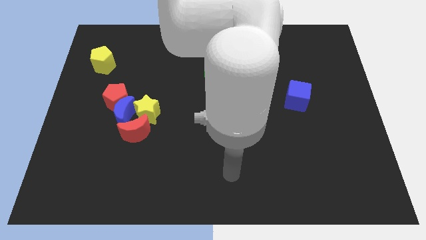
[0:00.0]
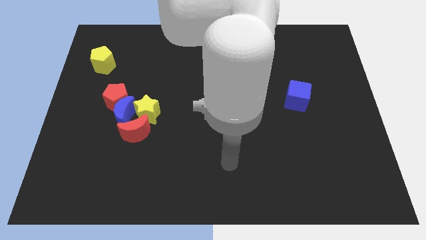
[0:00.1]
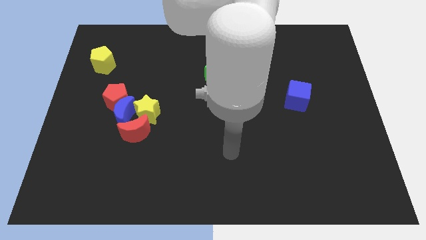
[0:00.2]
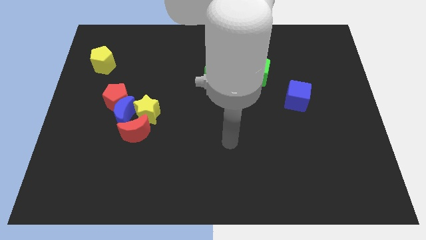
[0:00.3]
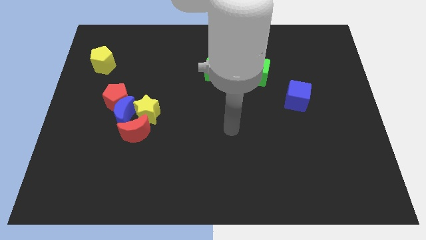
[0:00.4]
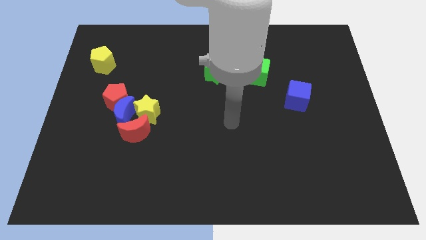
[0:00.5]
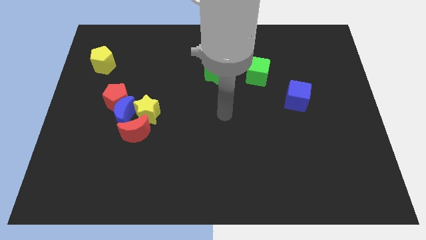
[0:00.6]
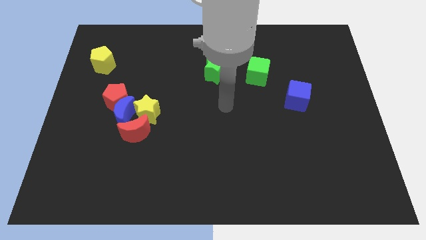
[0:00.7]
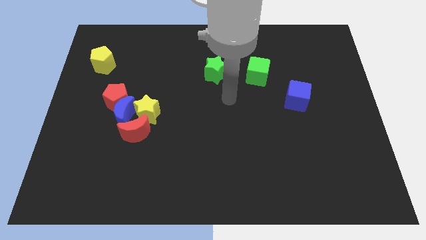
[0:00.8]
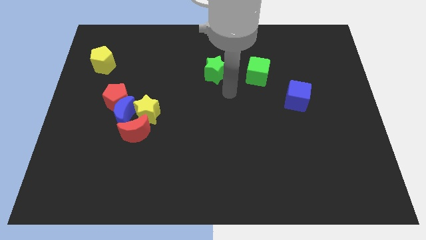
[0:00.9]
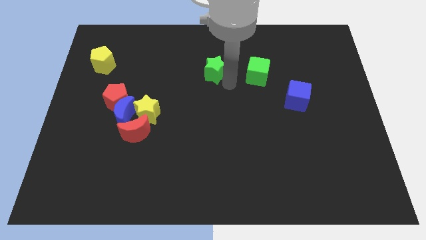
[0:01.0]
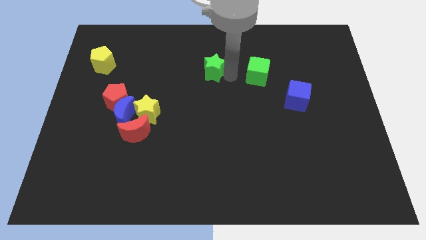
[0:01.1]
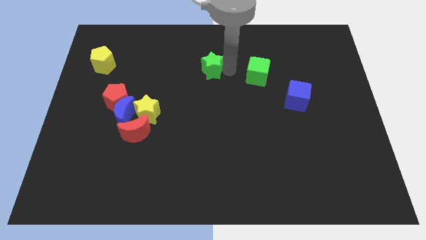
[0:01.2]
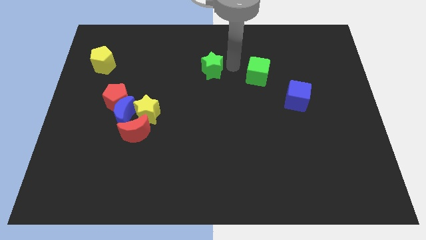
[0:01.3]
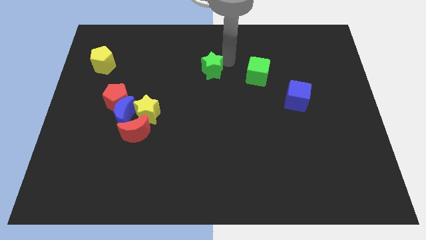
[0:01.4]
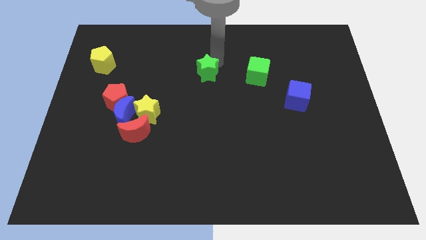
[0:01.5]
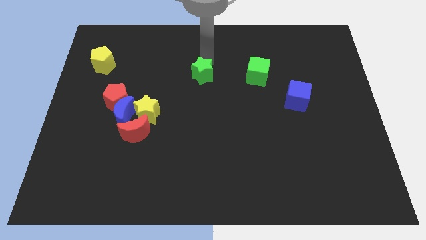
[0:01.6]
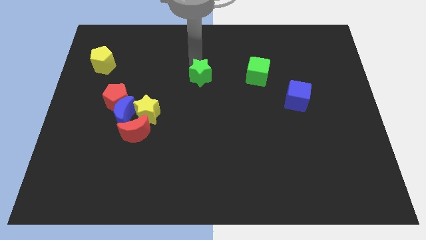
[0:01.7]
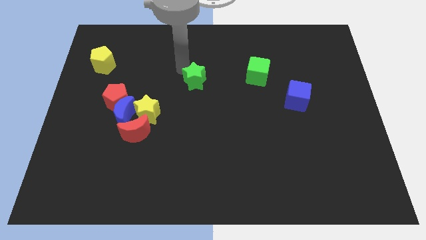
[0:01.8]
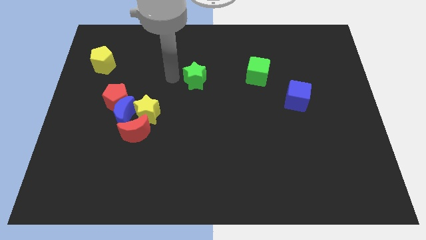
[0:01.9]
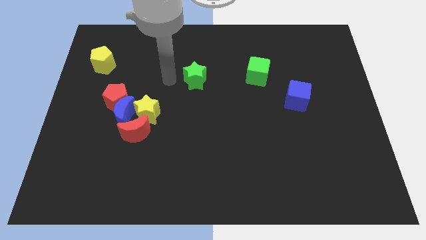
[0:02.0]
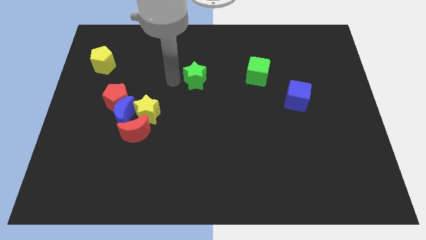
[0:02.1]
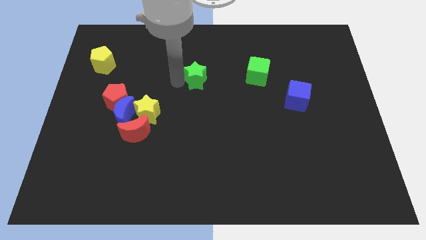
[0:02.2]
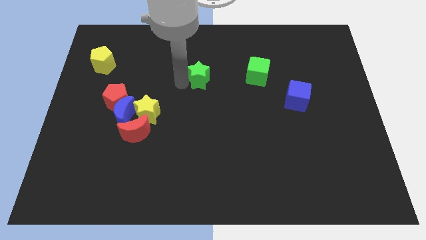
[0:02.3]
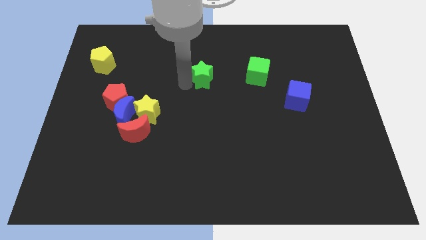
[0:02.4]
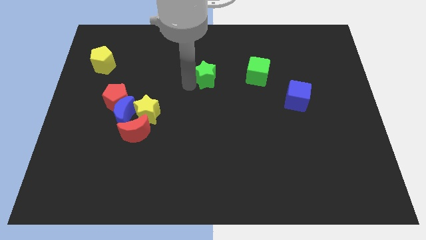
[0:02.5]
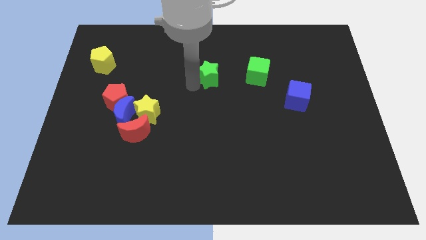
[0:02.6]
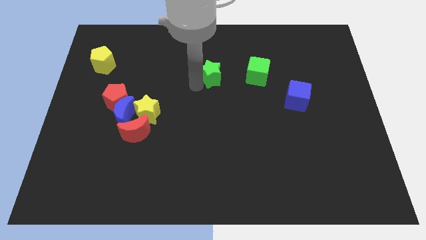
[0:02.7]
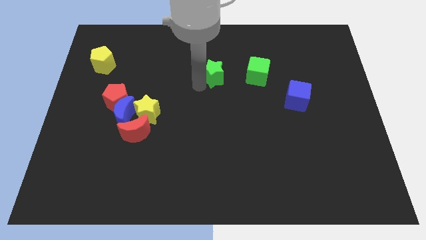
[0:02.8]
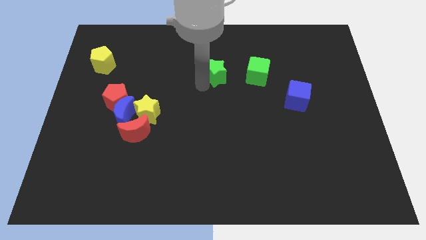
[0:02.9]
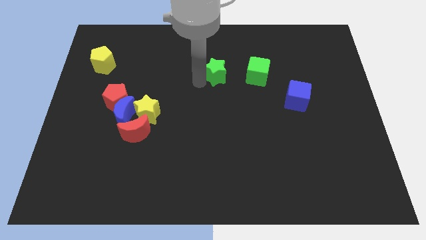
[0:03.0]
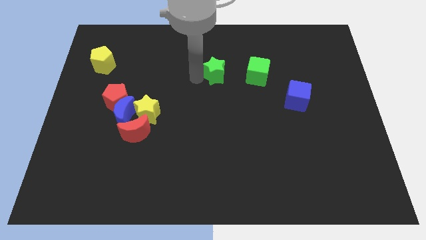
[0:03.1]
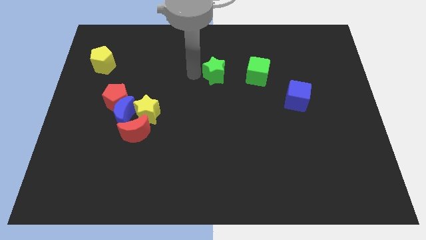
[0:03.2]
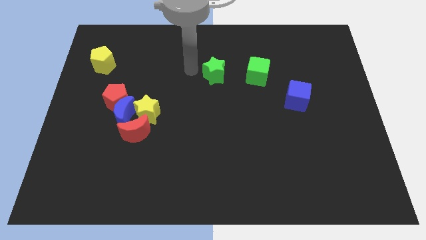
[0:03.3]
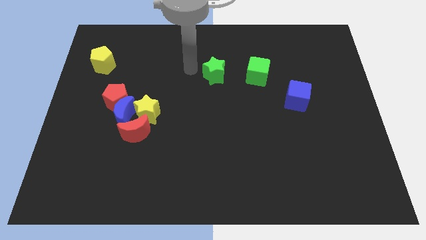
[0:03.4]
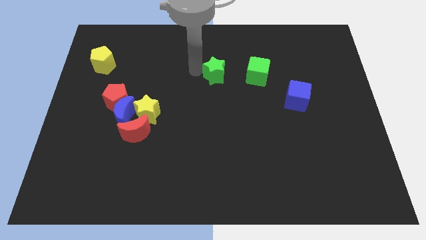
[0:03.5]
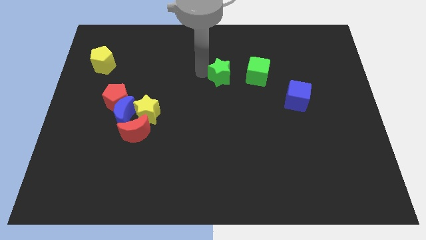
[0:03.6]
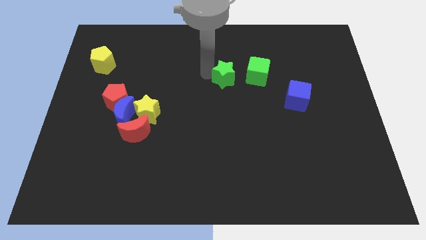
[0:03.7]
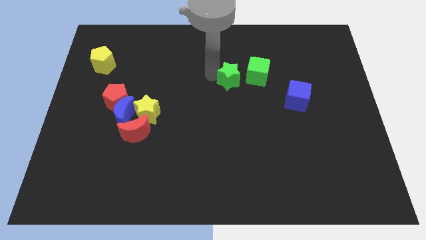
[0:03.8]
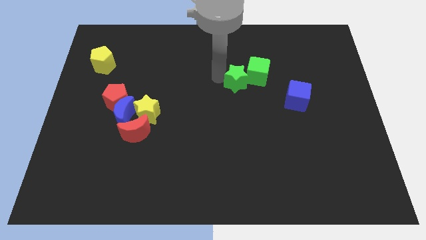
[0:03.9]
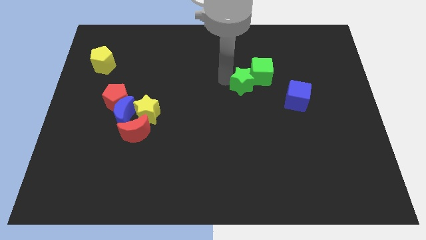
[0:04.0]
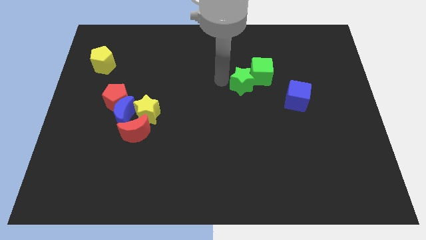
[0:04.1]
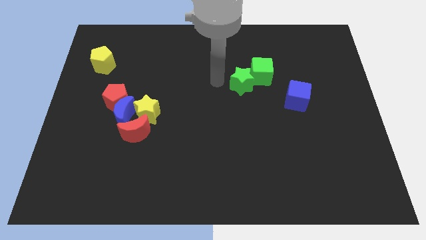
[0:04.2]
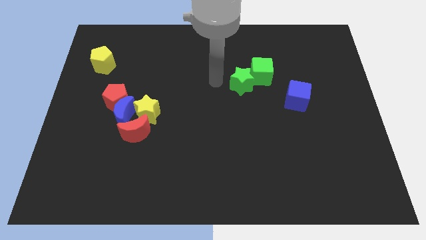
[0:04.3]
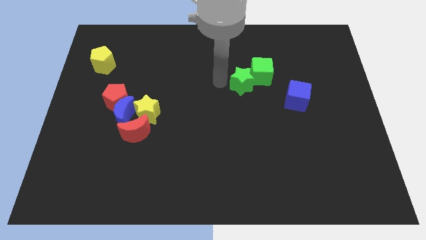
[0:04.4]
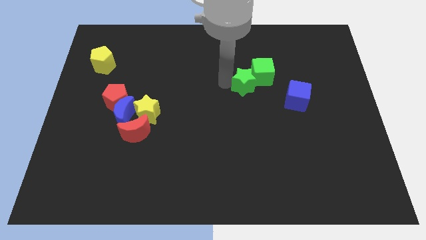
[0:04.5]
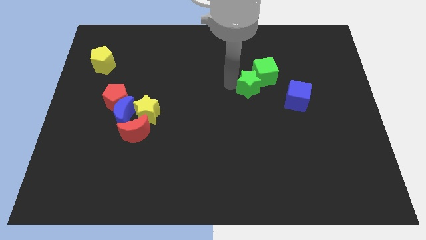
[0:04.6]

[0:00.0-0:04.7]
slightly move the green star to the right

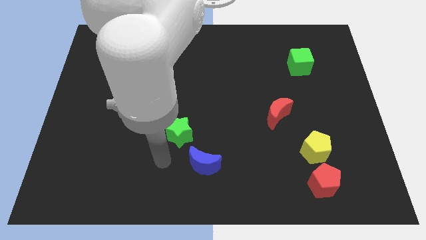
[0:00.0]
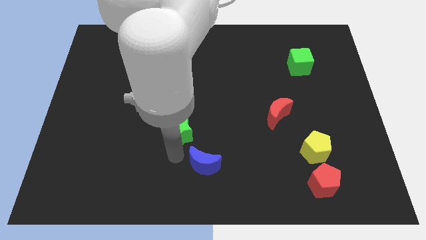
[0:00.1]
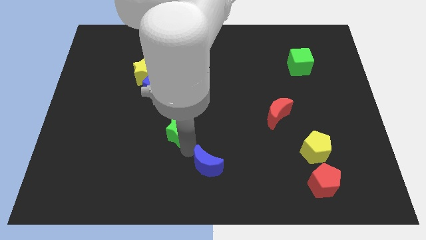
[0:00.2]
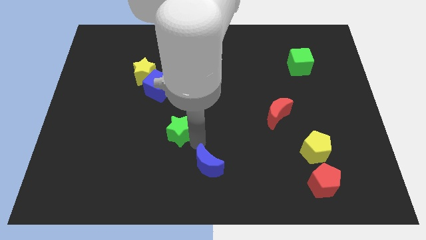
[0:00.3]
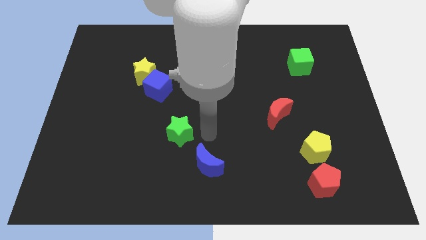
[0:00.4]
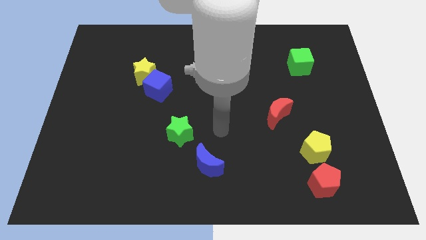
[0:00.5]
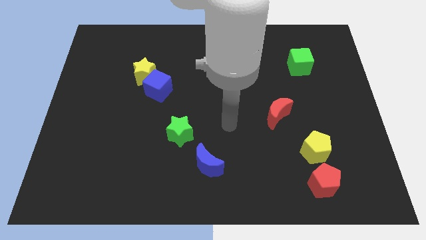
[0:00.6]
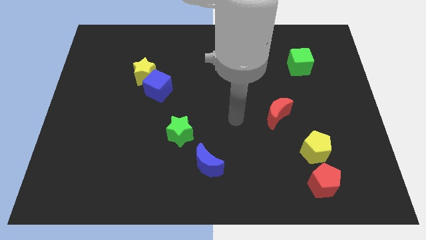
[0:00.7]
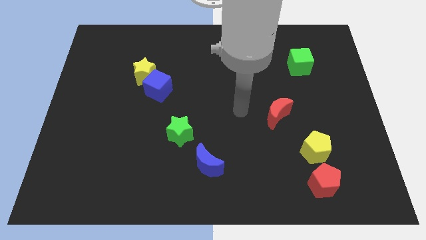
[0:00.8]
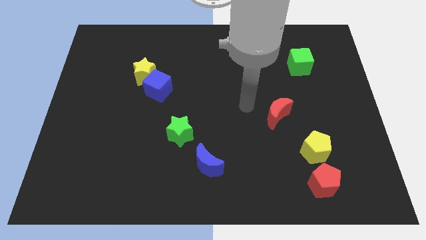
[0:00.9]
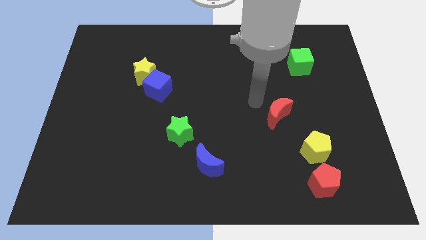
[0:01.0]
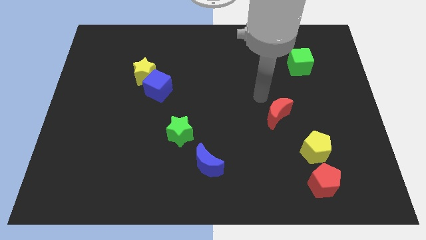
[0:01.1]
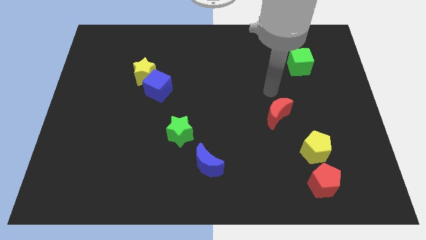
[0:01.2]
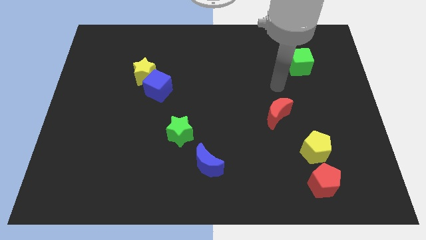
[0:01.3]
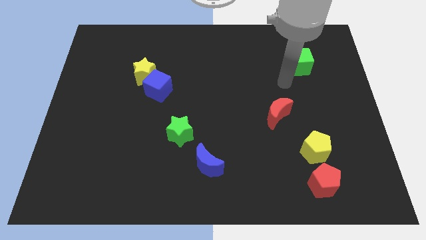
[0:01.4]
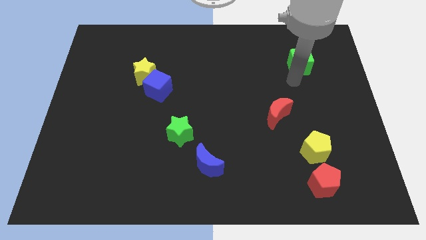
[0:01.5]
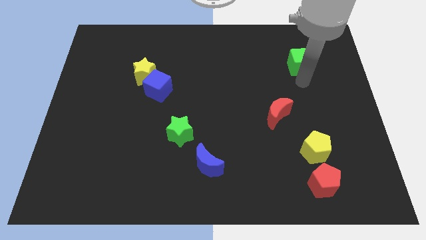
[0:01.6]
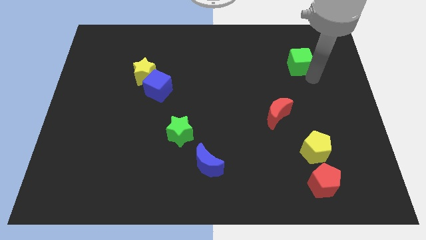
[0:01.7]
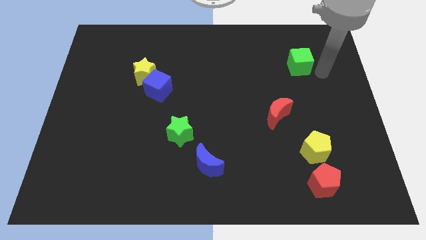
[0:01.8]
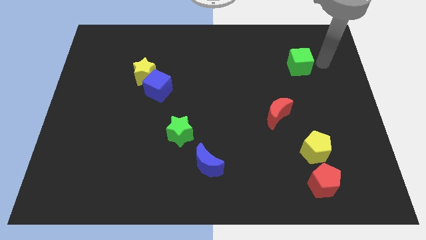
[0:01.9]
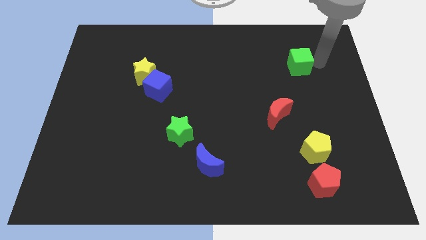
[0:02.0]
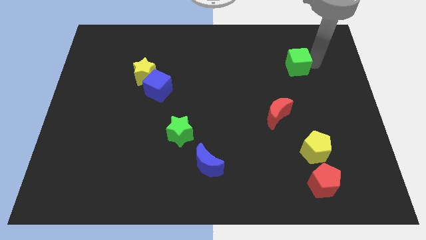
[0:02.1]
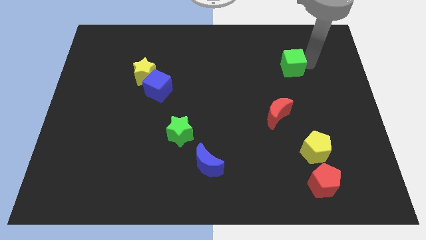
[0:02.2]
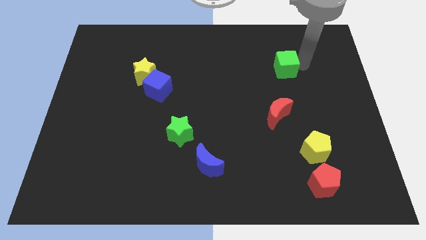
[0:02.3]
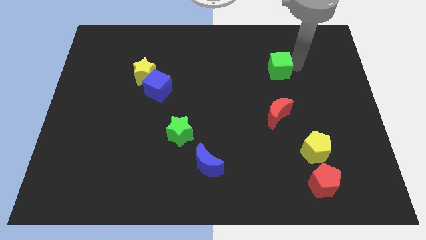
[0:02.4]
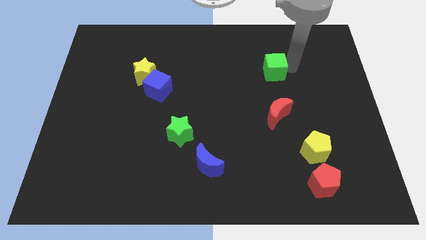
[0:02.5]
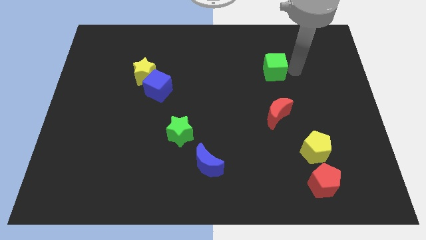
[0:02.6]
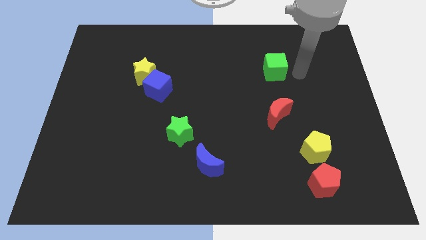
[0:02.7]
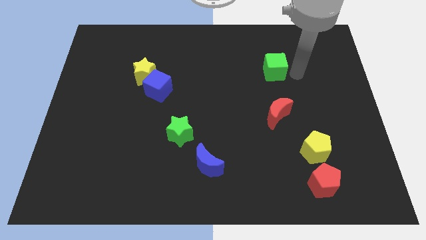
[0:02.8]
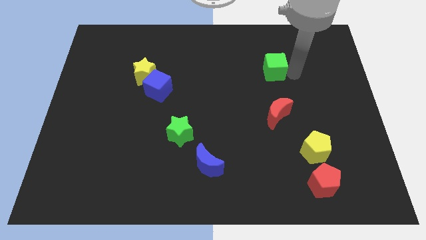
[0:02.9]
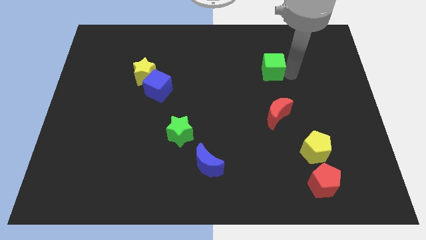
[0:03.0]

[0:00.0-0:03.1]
push the green cube somewhat to the left

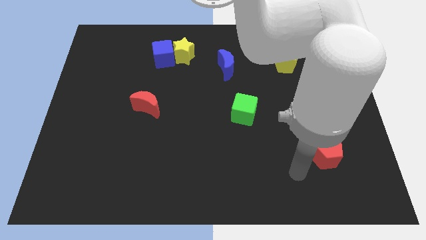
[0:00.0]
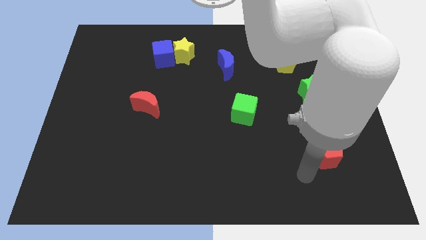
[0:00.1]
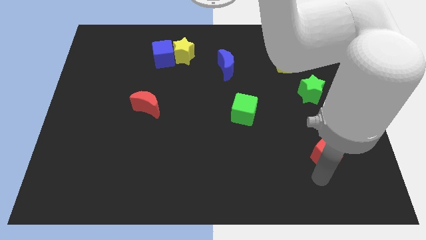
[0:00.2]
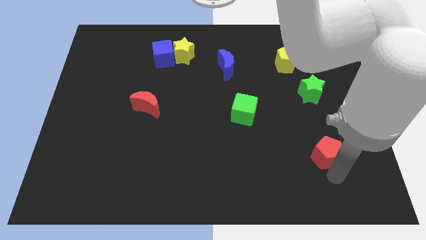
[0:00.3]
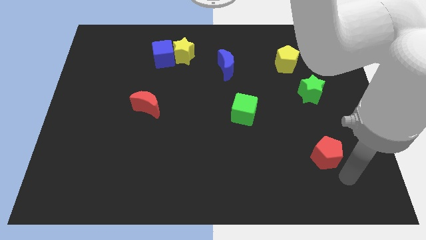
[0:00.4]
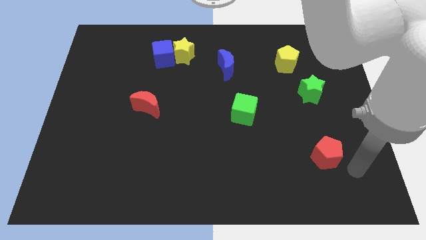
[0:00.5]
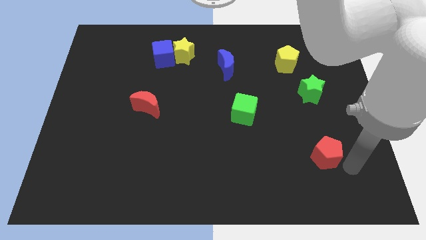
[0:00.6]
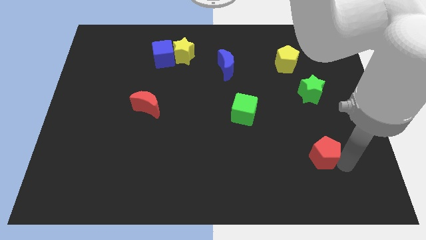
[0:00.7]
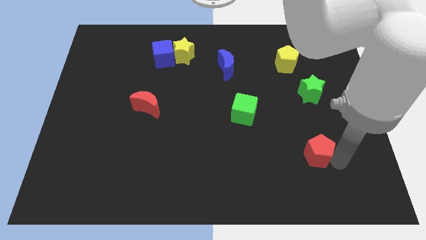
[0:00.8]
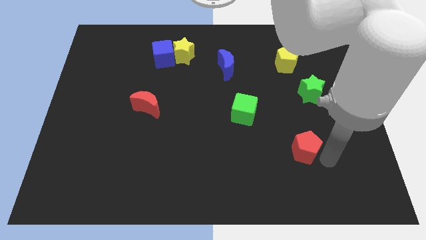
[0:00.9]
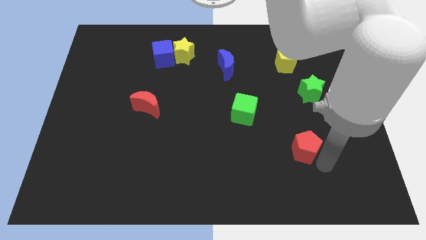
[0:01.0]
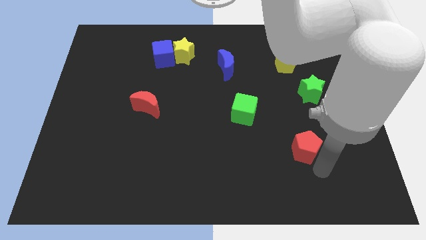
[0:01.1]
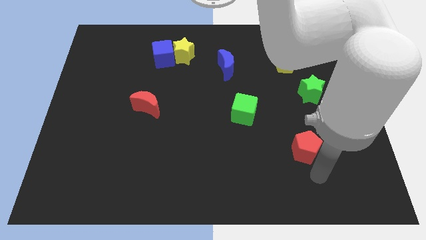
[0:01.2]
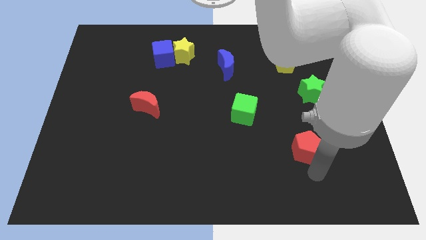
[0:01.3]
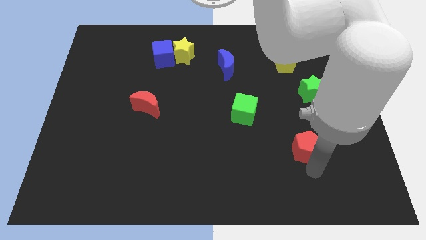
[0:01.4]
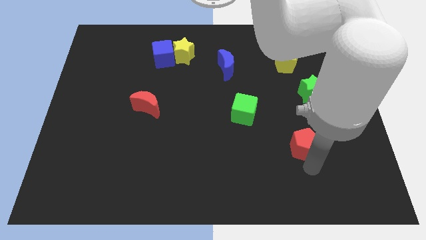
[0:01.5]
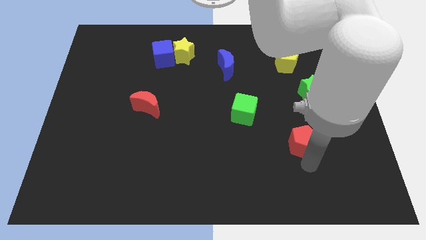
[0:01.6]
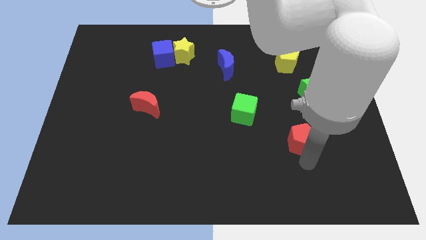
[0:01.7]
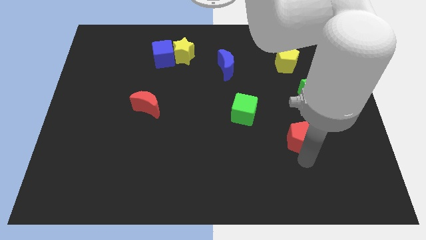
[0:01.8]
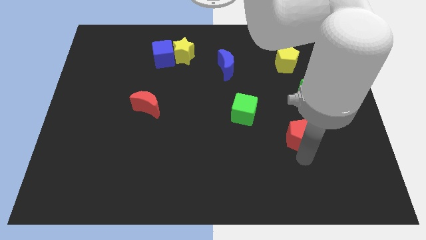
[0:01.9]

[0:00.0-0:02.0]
move the red pentagon slightly upwards and then to the left
